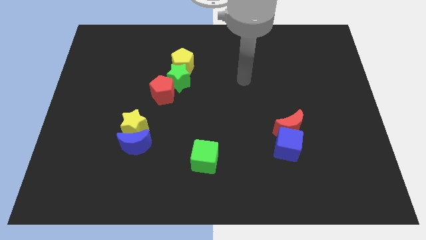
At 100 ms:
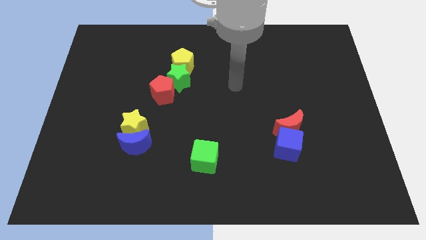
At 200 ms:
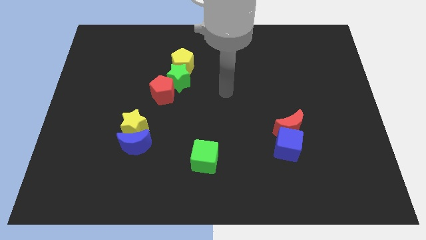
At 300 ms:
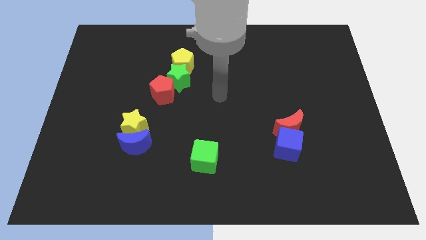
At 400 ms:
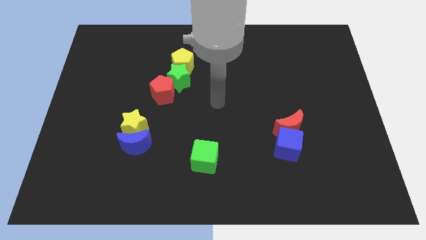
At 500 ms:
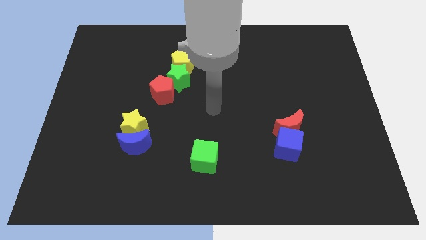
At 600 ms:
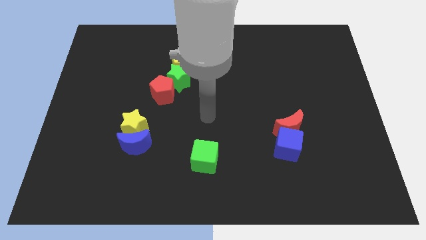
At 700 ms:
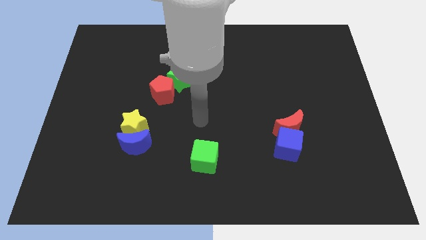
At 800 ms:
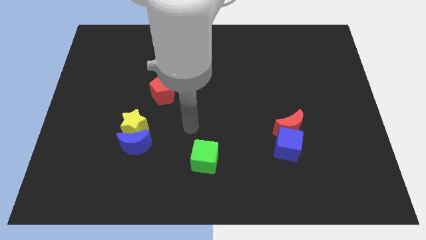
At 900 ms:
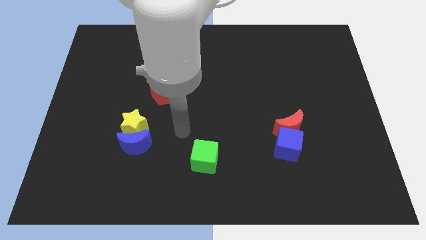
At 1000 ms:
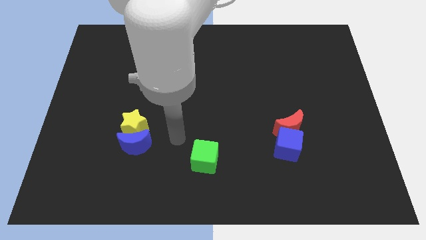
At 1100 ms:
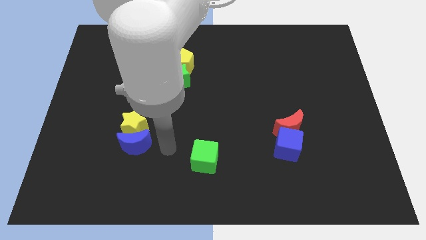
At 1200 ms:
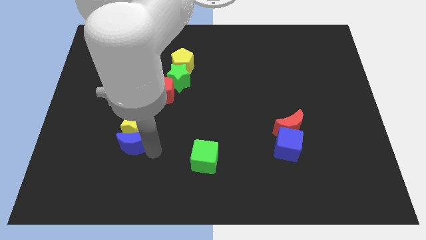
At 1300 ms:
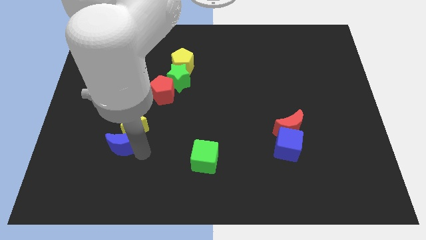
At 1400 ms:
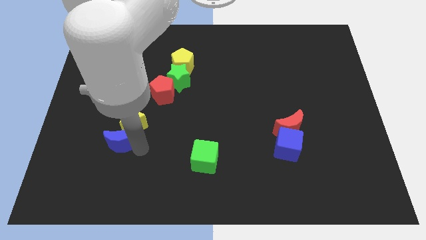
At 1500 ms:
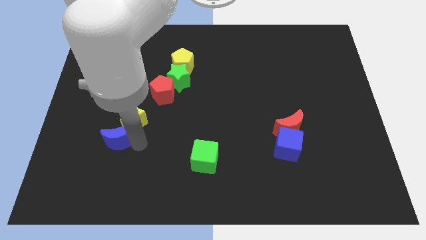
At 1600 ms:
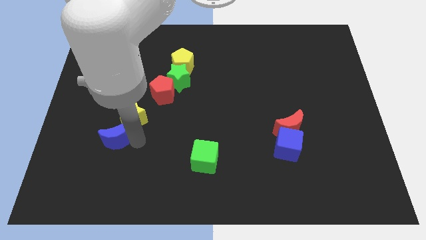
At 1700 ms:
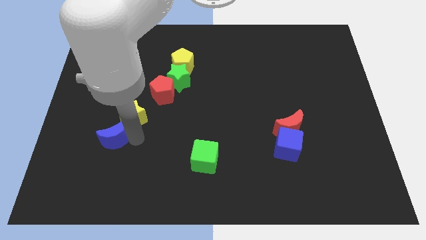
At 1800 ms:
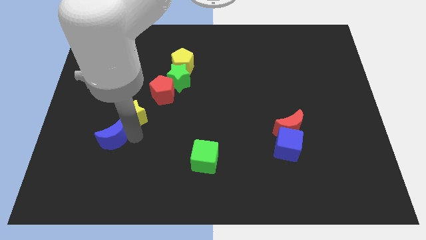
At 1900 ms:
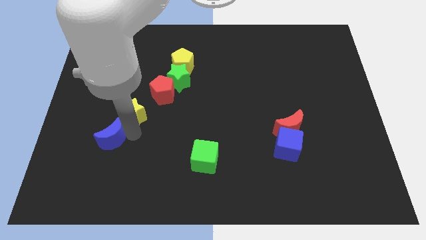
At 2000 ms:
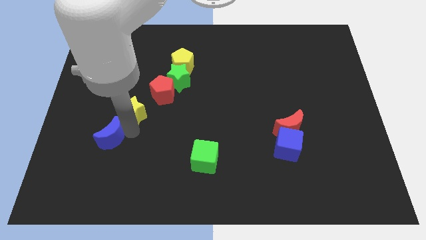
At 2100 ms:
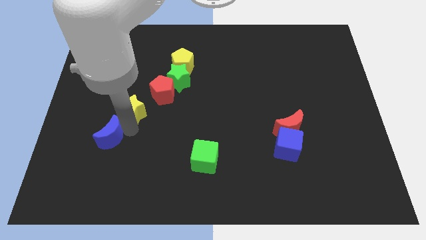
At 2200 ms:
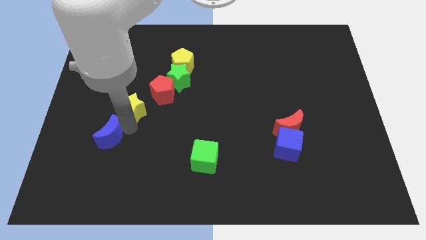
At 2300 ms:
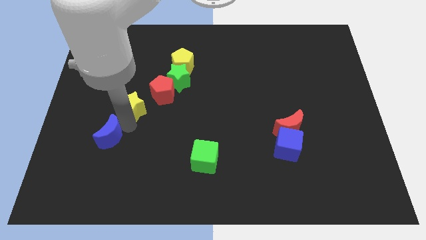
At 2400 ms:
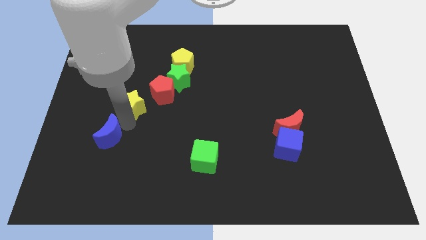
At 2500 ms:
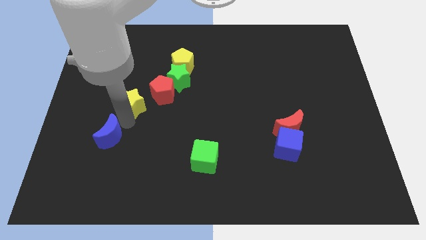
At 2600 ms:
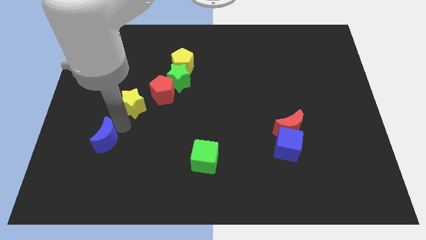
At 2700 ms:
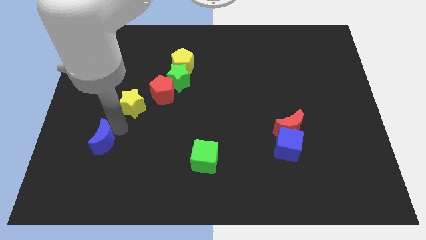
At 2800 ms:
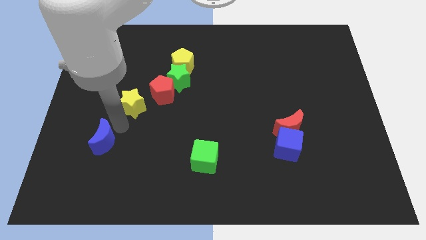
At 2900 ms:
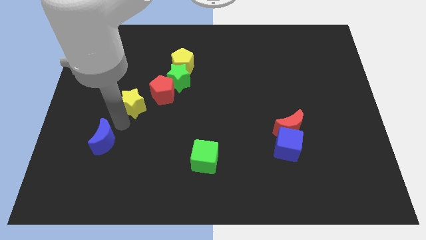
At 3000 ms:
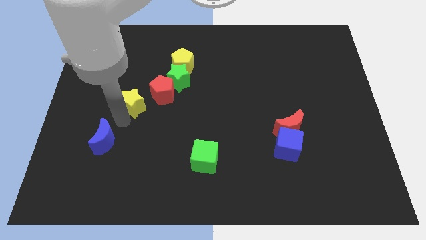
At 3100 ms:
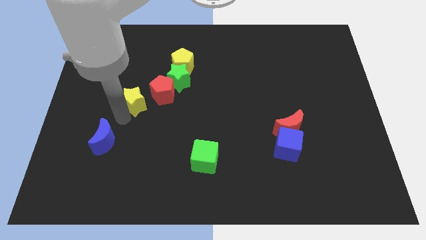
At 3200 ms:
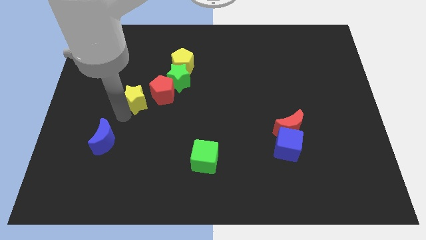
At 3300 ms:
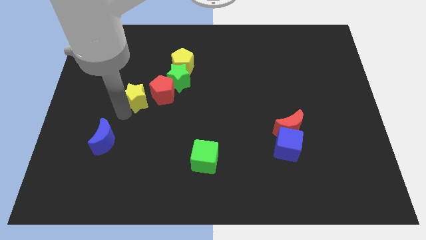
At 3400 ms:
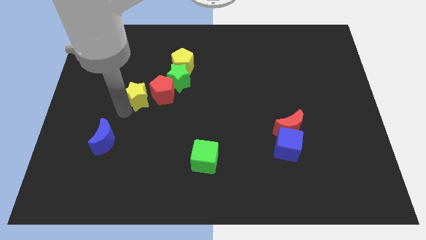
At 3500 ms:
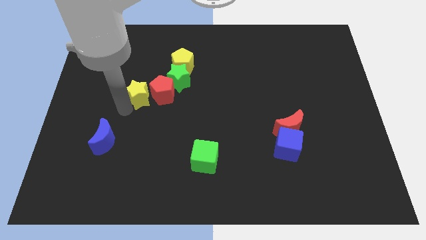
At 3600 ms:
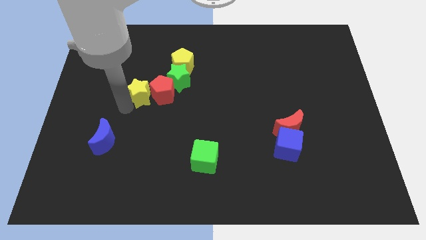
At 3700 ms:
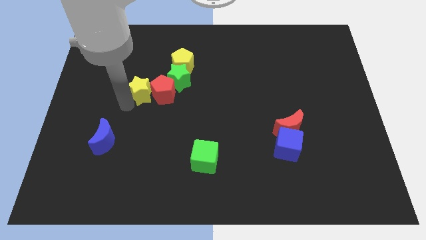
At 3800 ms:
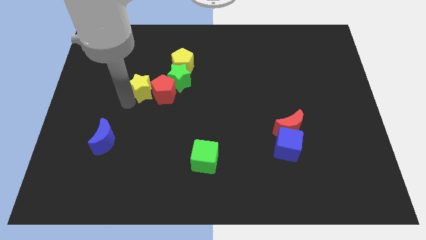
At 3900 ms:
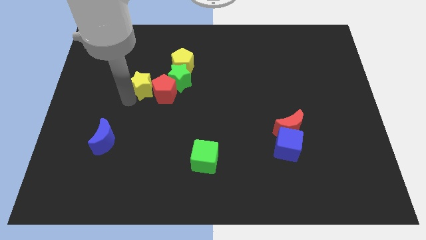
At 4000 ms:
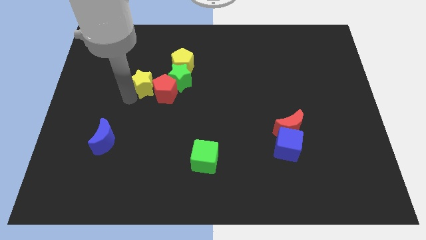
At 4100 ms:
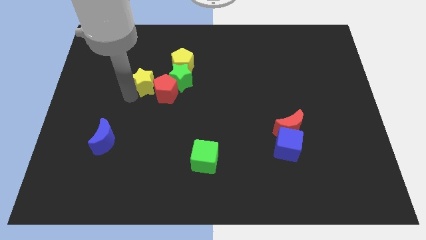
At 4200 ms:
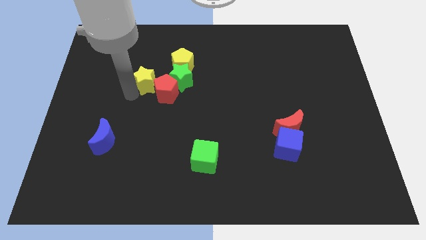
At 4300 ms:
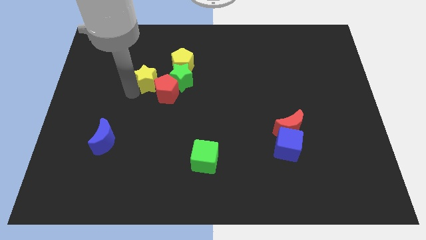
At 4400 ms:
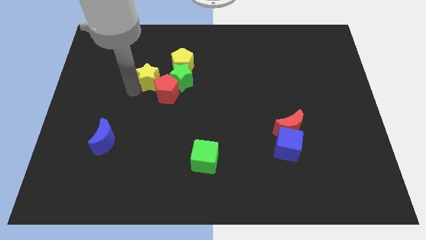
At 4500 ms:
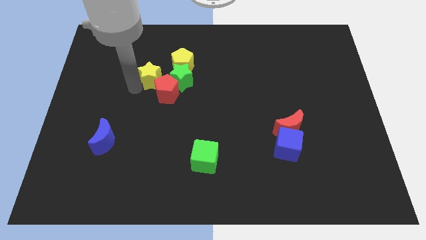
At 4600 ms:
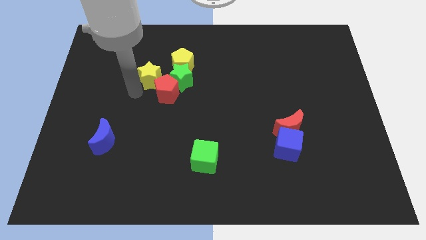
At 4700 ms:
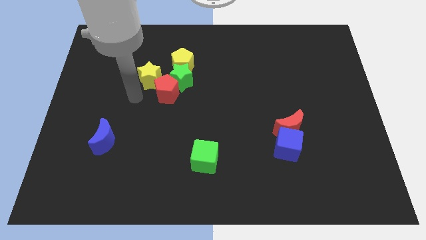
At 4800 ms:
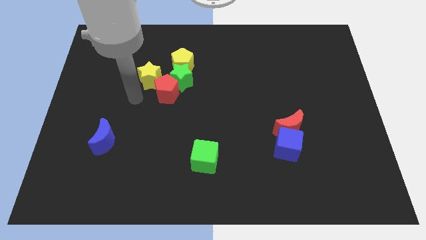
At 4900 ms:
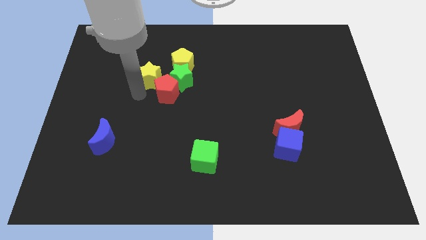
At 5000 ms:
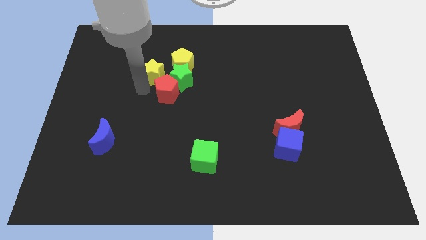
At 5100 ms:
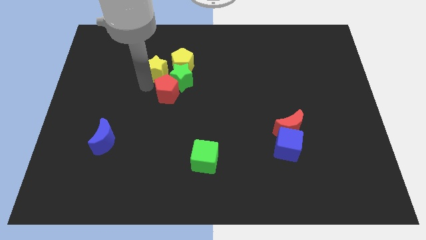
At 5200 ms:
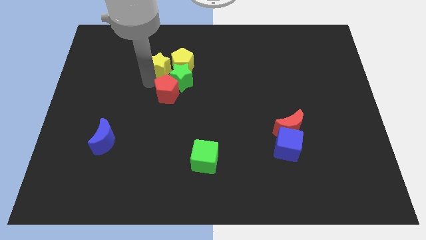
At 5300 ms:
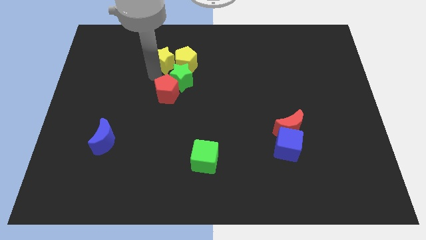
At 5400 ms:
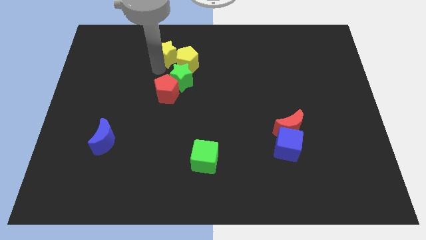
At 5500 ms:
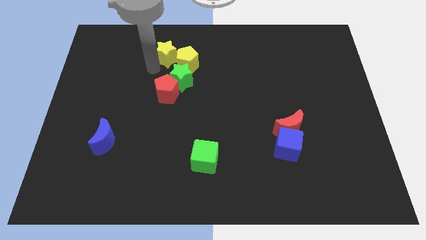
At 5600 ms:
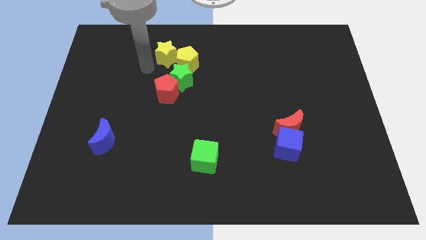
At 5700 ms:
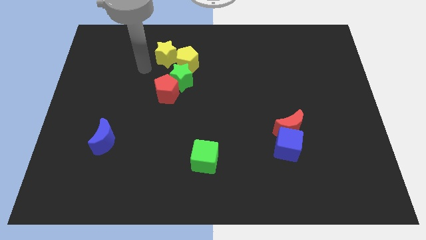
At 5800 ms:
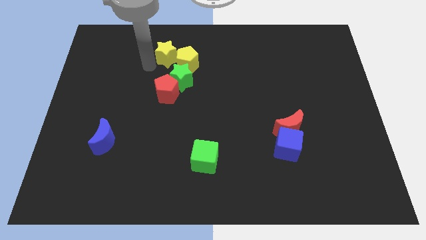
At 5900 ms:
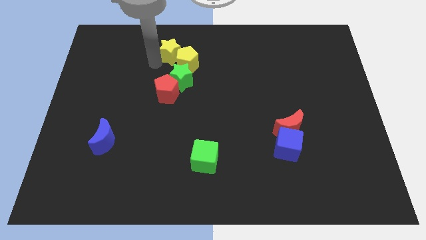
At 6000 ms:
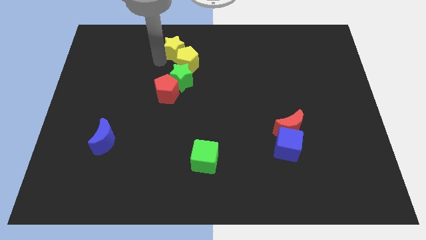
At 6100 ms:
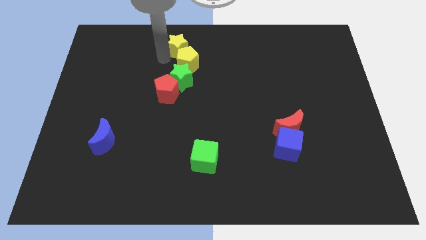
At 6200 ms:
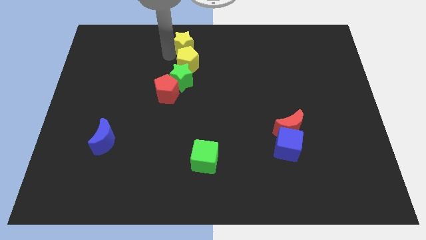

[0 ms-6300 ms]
slide the yellow star to the towards your base
